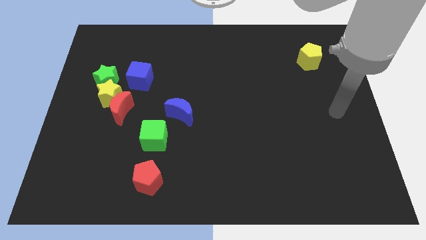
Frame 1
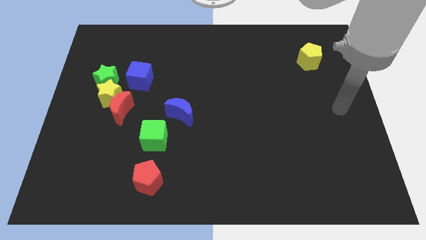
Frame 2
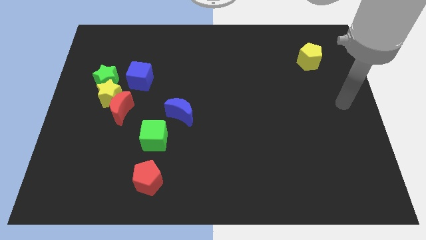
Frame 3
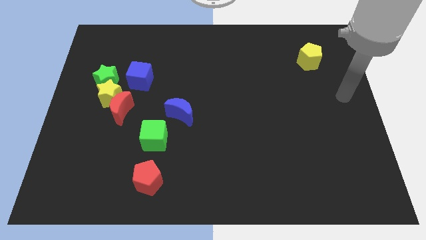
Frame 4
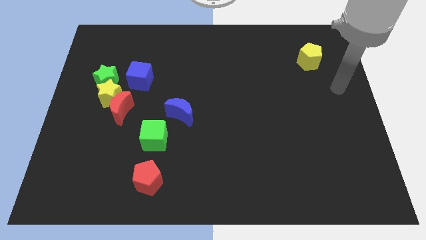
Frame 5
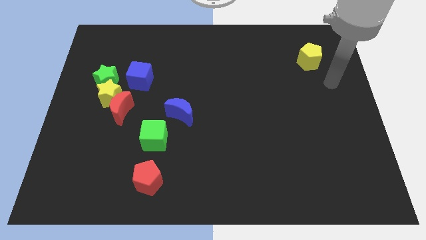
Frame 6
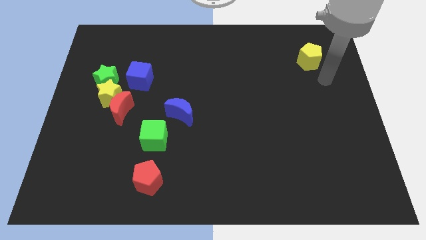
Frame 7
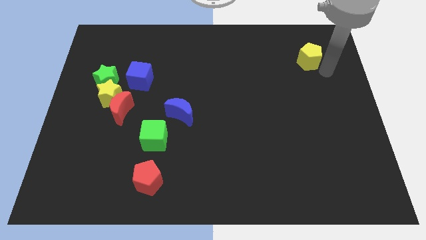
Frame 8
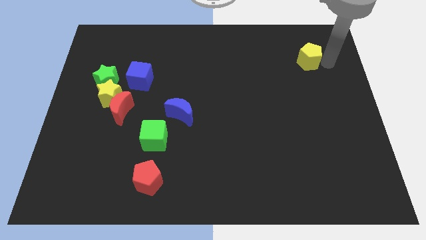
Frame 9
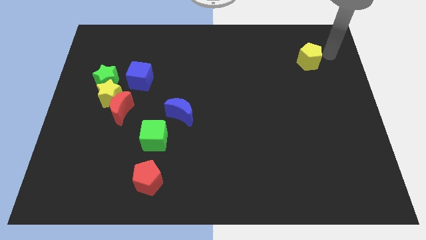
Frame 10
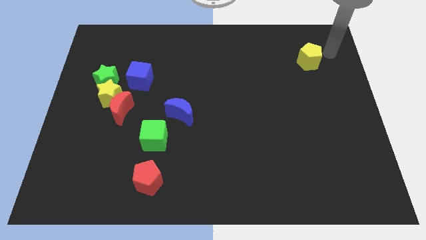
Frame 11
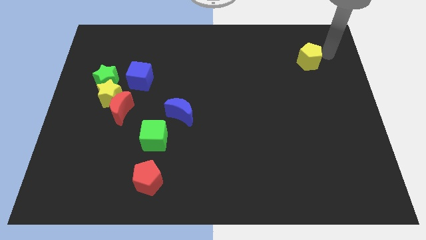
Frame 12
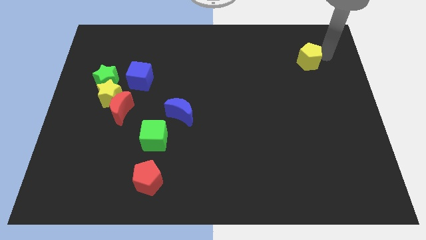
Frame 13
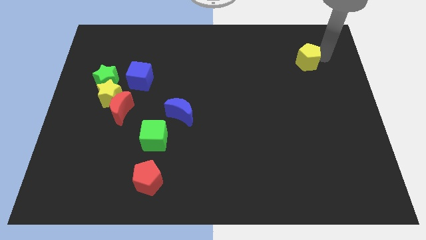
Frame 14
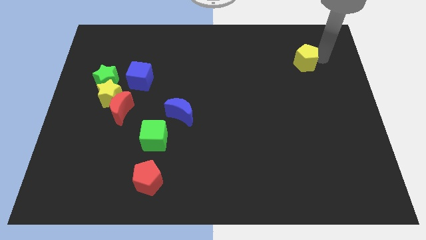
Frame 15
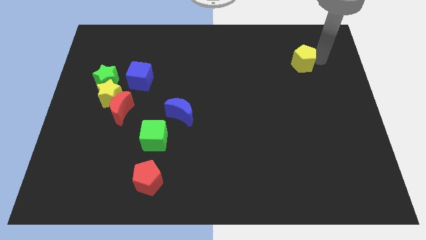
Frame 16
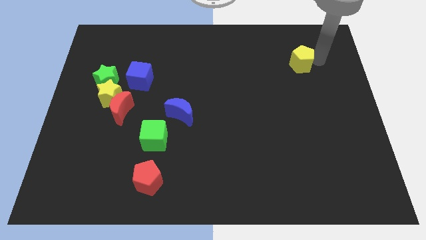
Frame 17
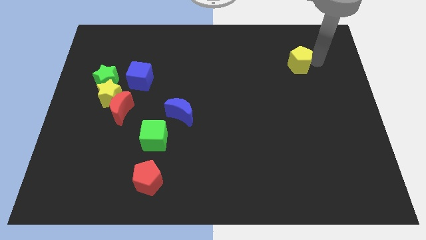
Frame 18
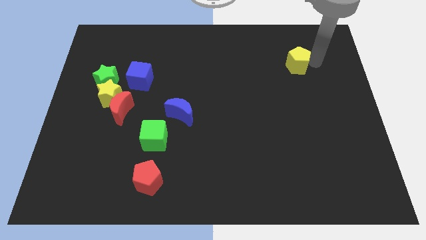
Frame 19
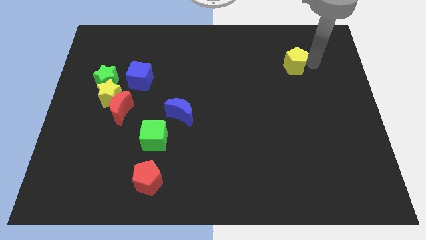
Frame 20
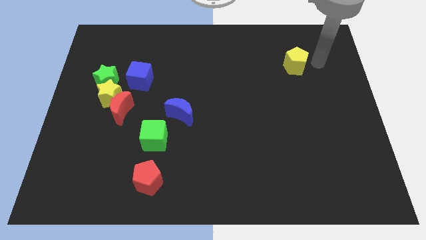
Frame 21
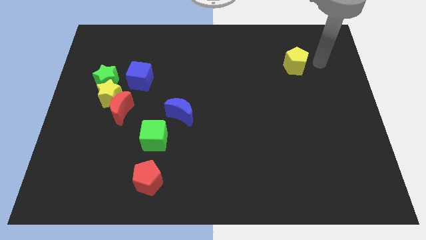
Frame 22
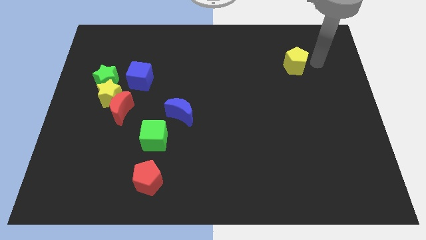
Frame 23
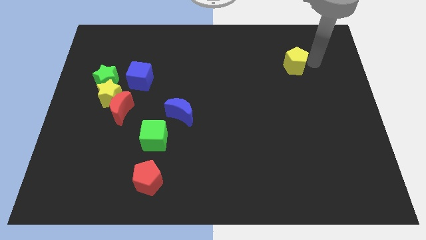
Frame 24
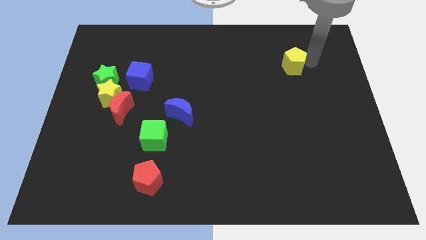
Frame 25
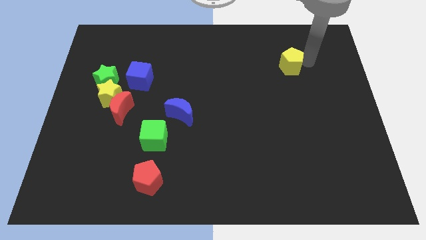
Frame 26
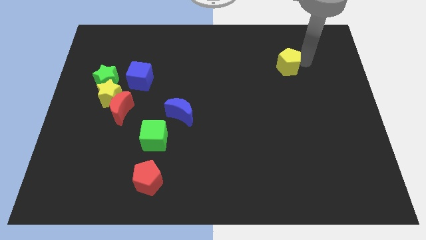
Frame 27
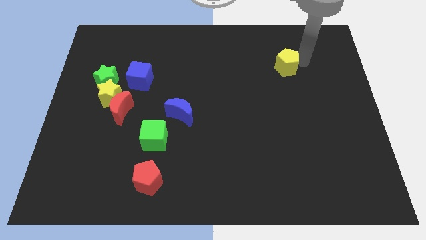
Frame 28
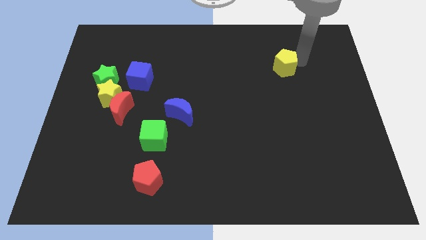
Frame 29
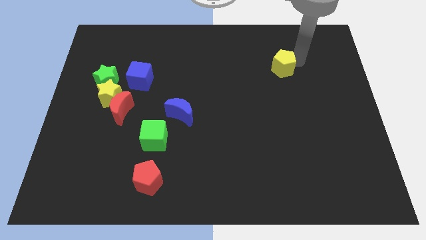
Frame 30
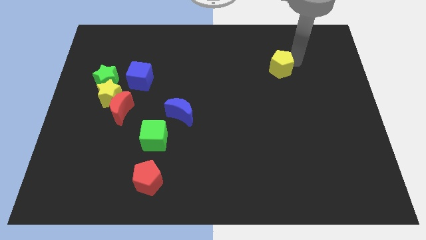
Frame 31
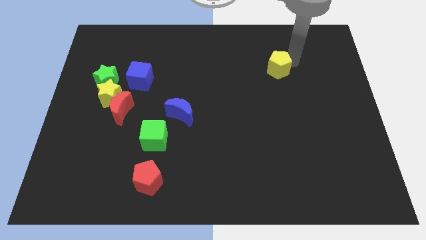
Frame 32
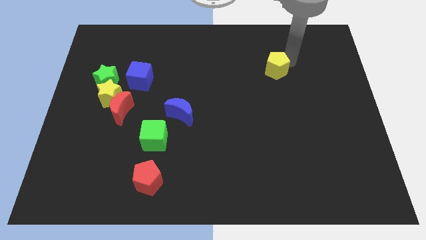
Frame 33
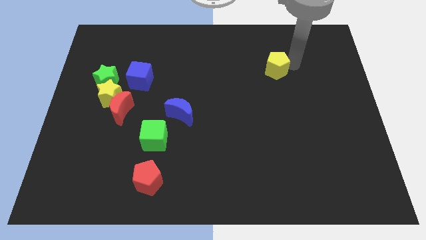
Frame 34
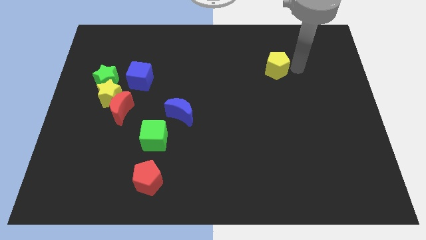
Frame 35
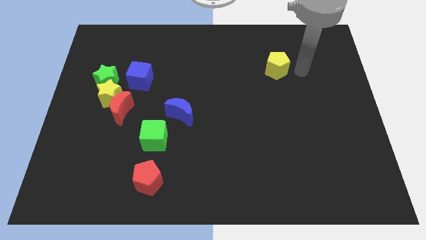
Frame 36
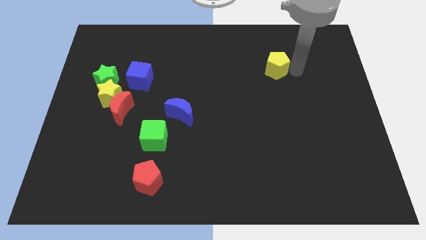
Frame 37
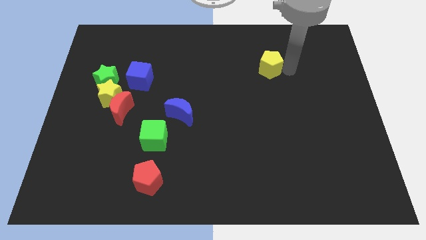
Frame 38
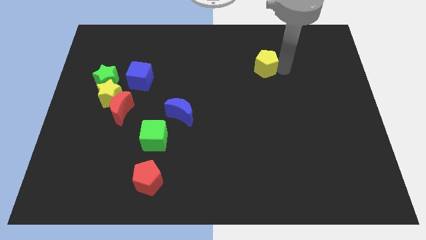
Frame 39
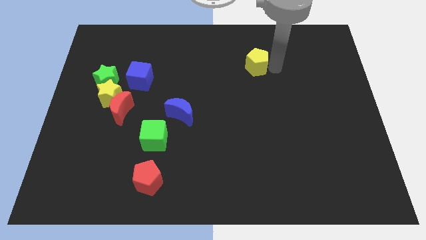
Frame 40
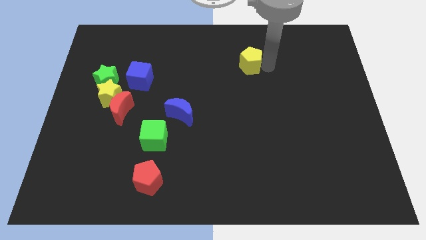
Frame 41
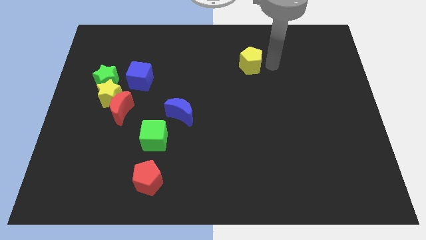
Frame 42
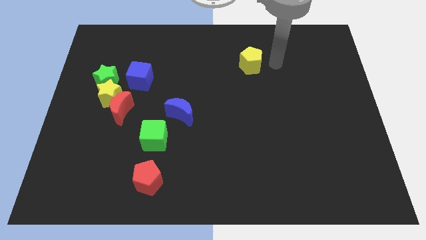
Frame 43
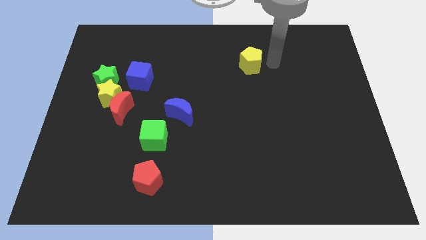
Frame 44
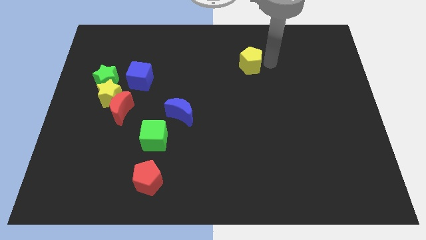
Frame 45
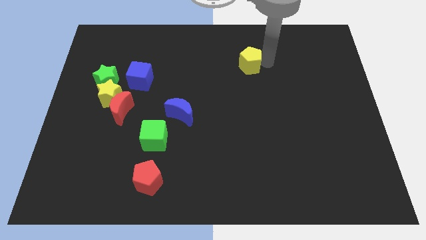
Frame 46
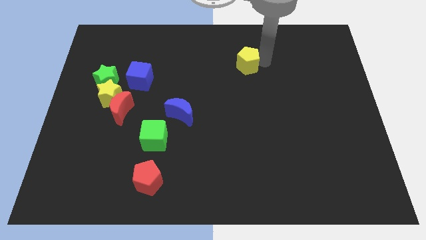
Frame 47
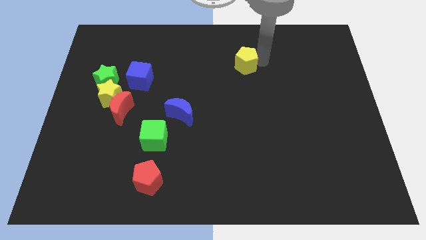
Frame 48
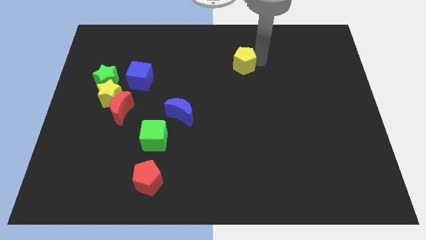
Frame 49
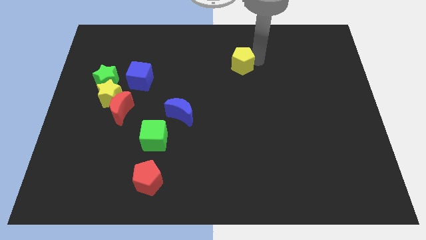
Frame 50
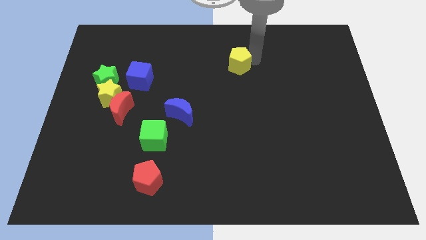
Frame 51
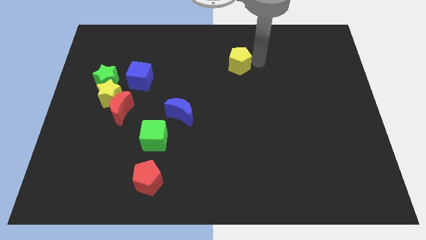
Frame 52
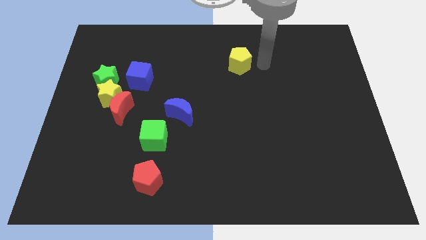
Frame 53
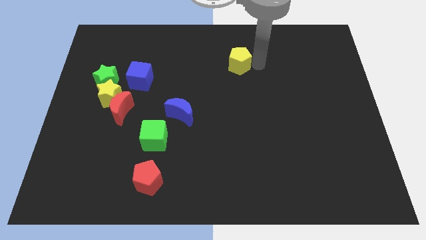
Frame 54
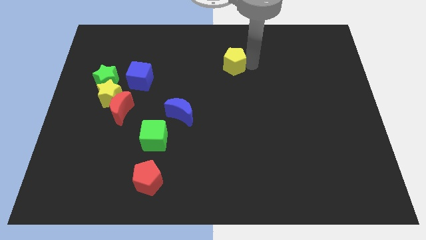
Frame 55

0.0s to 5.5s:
push the yellow pentagon to the left

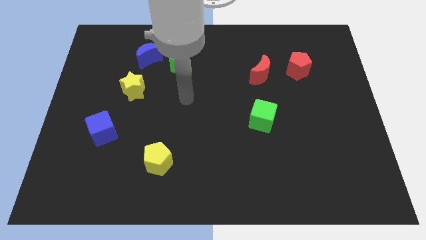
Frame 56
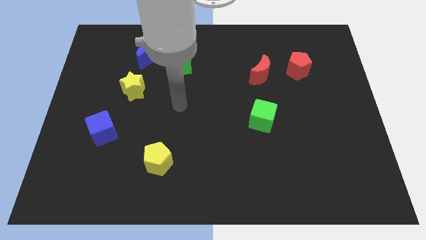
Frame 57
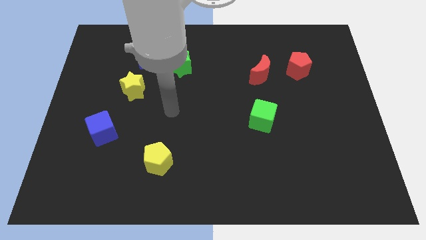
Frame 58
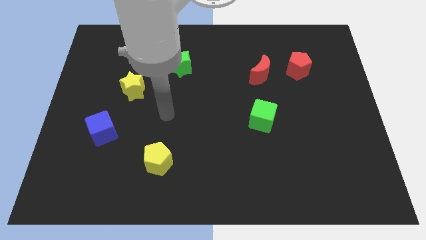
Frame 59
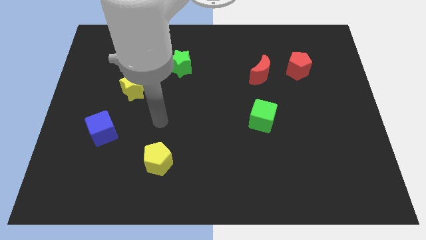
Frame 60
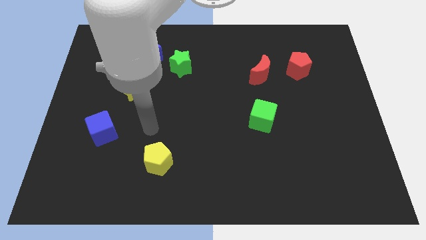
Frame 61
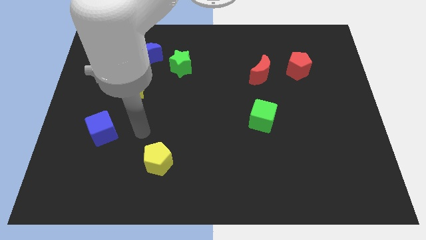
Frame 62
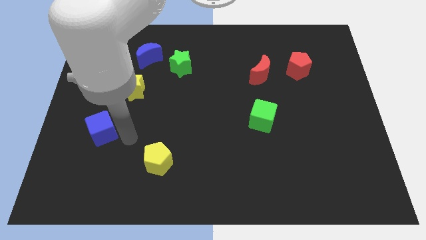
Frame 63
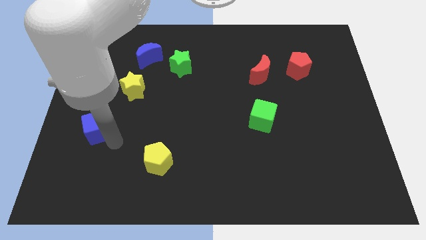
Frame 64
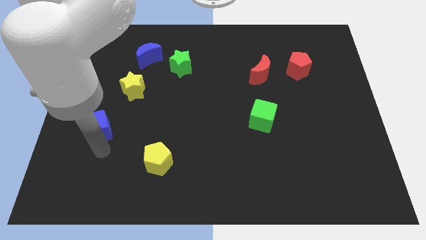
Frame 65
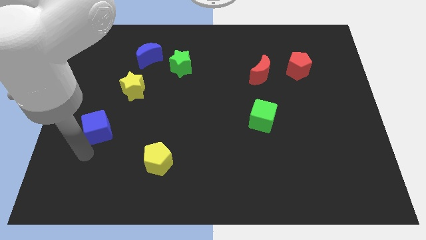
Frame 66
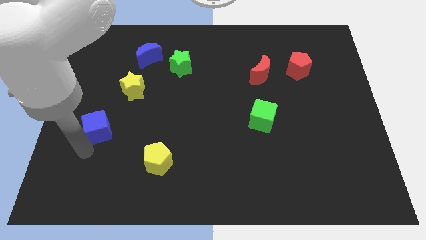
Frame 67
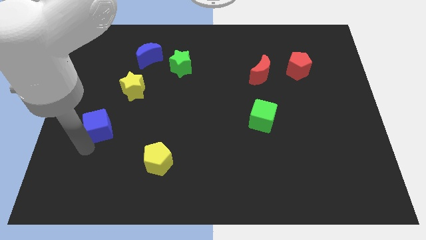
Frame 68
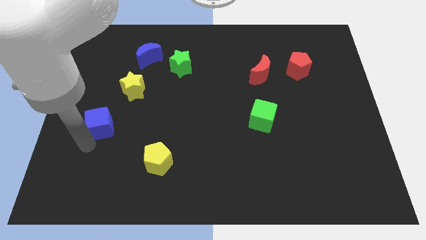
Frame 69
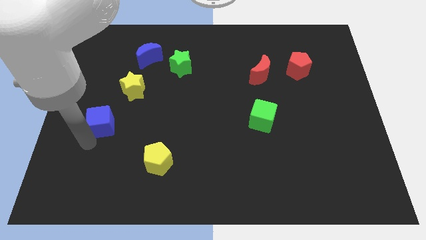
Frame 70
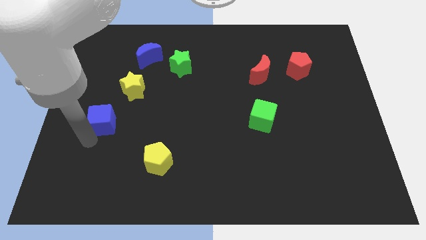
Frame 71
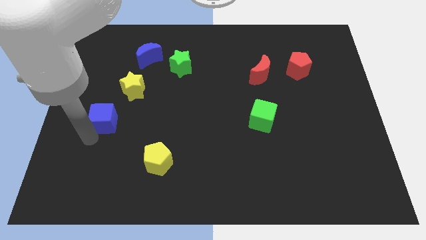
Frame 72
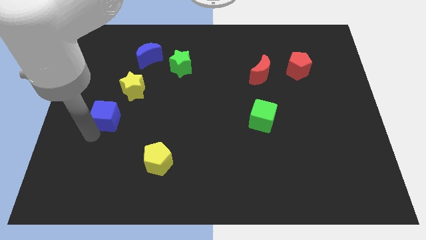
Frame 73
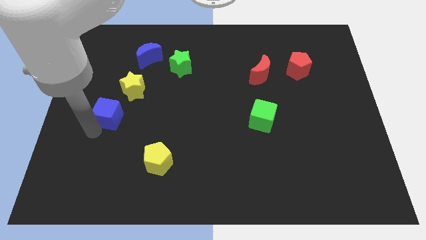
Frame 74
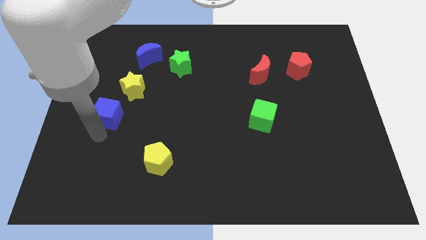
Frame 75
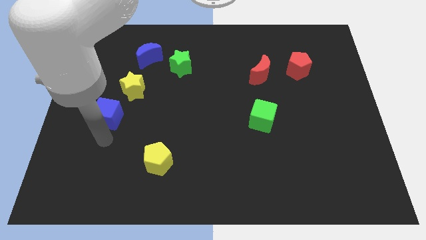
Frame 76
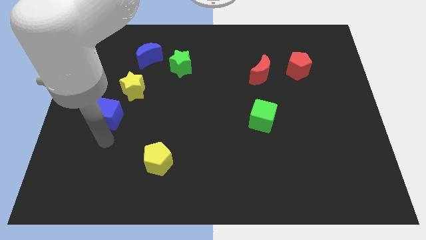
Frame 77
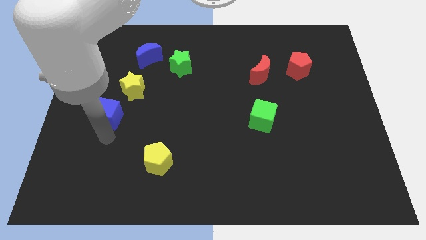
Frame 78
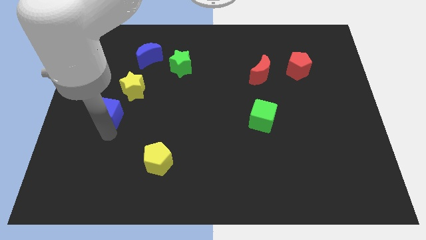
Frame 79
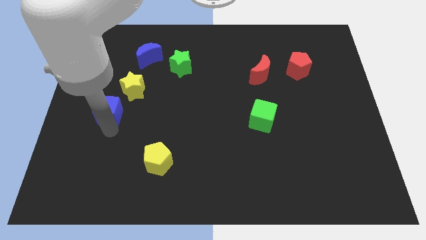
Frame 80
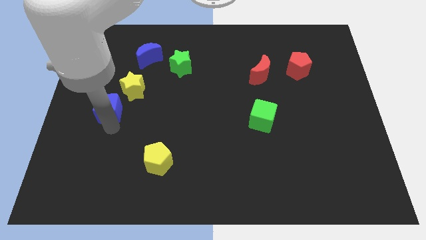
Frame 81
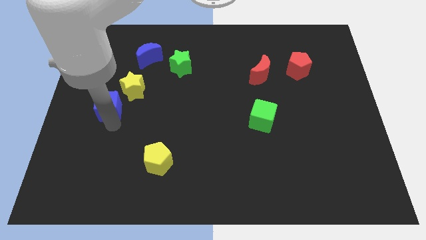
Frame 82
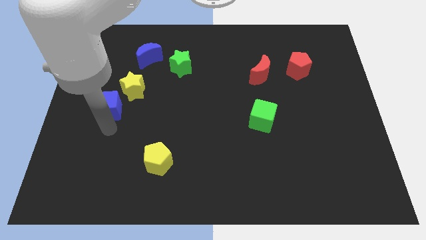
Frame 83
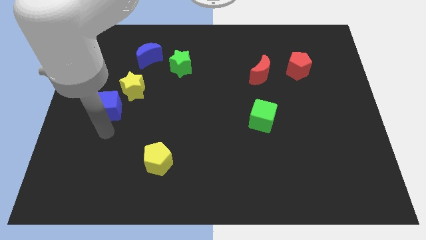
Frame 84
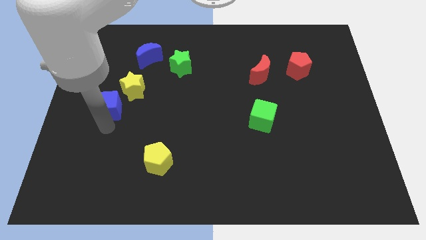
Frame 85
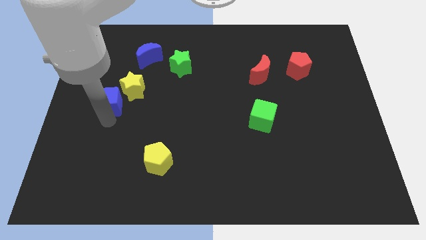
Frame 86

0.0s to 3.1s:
push the blue cube upwards somewhat
